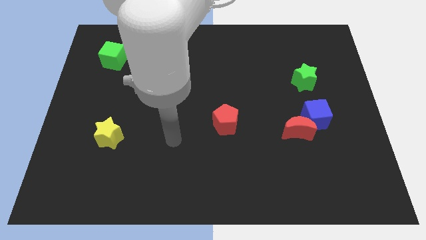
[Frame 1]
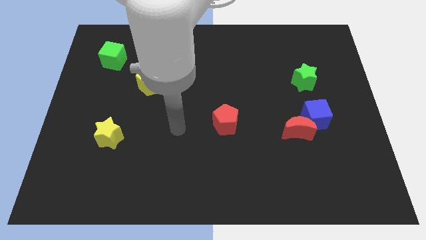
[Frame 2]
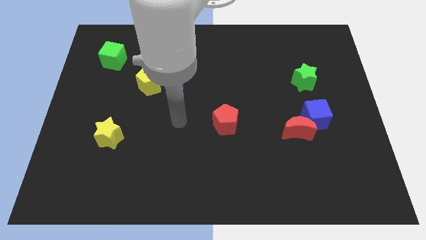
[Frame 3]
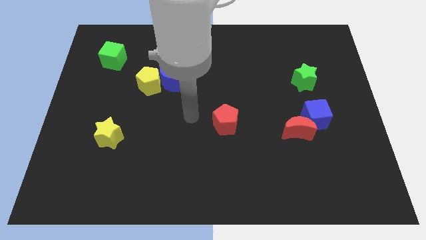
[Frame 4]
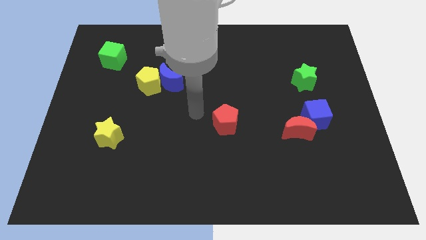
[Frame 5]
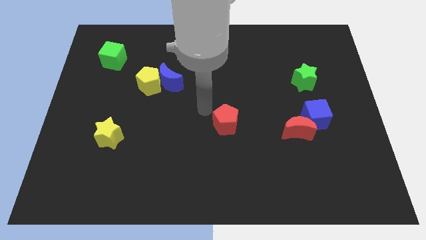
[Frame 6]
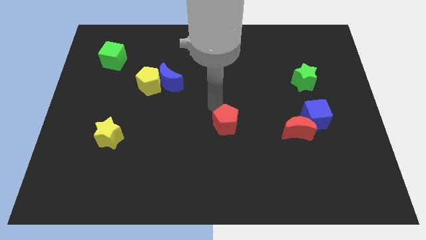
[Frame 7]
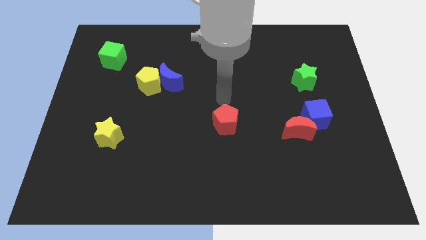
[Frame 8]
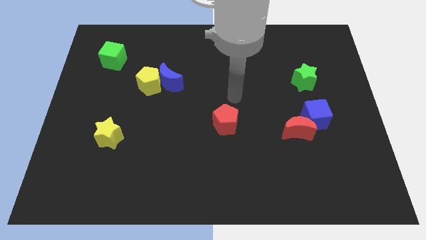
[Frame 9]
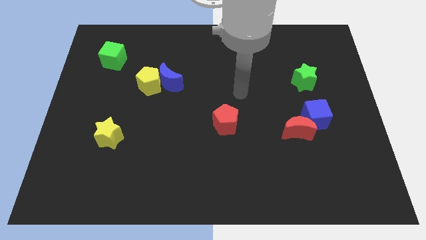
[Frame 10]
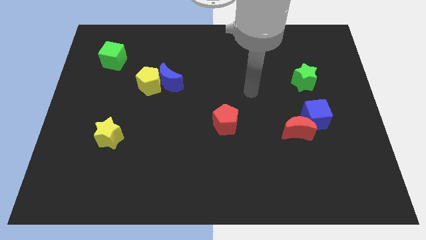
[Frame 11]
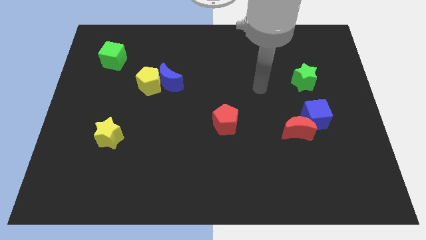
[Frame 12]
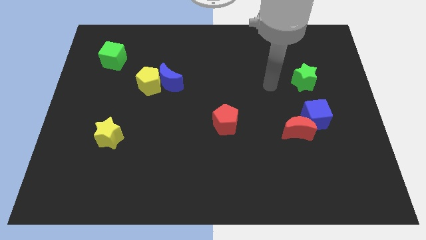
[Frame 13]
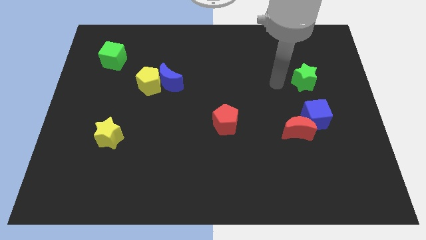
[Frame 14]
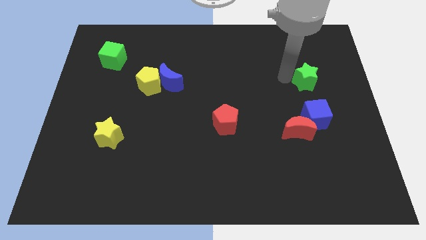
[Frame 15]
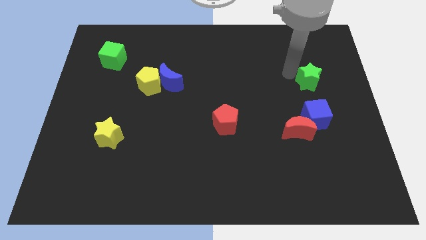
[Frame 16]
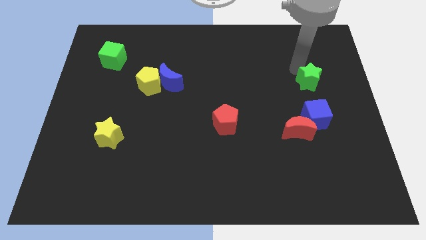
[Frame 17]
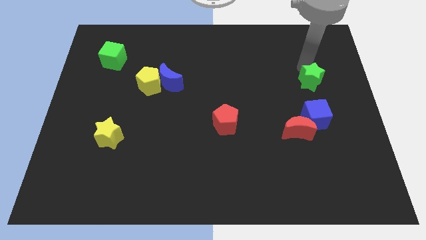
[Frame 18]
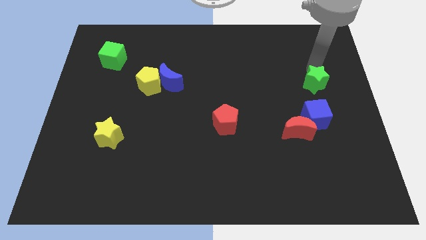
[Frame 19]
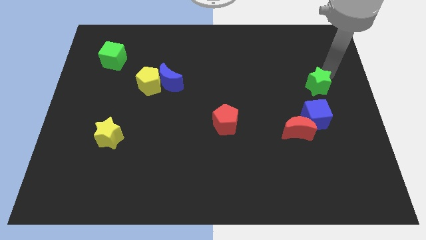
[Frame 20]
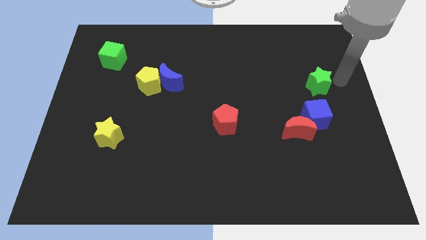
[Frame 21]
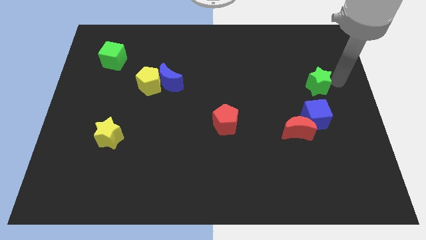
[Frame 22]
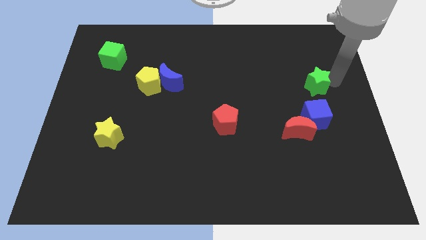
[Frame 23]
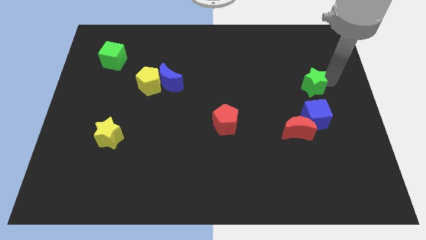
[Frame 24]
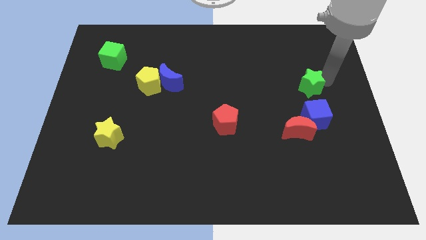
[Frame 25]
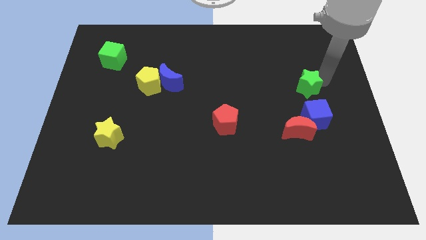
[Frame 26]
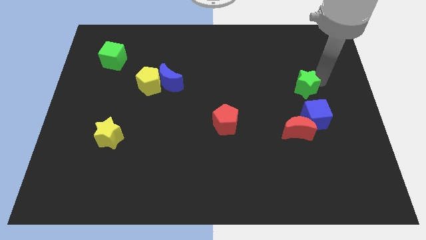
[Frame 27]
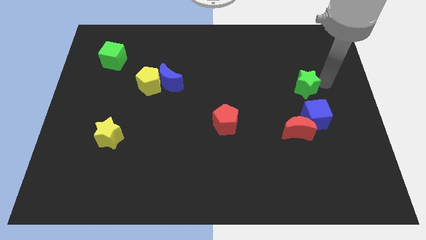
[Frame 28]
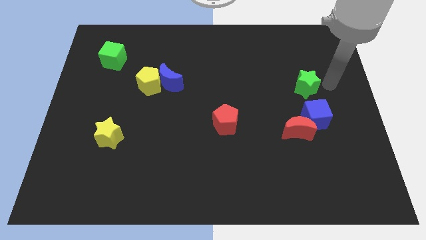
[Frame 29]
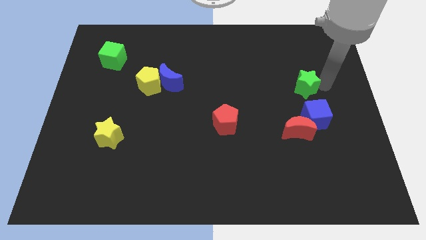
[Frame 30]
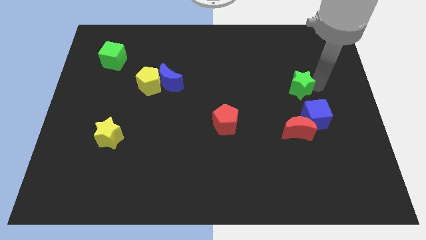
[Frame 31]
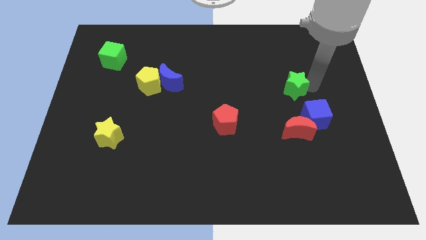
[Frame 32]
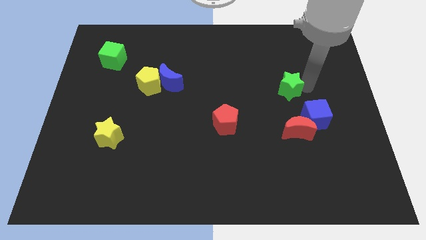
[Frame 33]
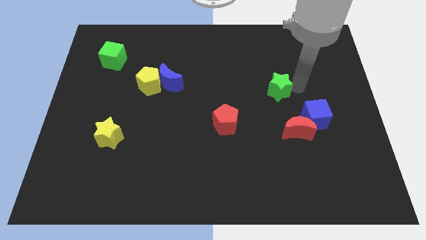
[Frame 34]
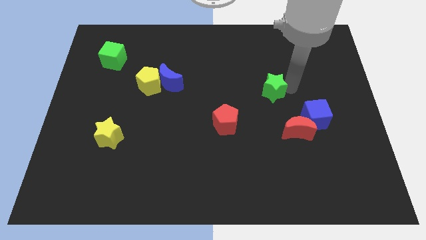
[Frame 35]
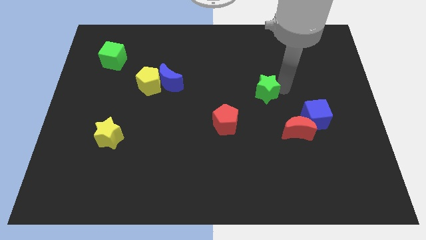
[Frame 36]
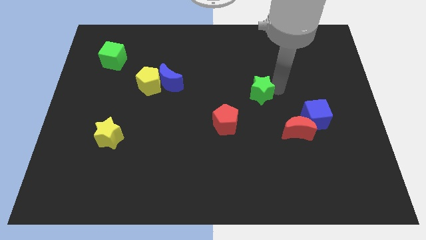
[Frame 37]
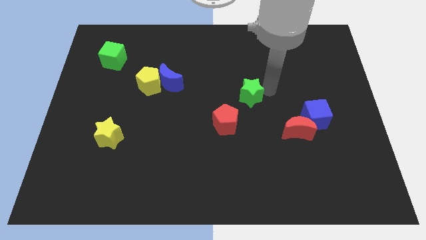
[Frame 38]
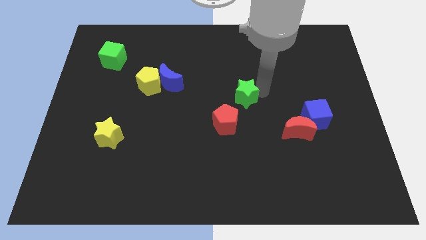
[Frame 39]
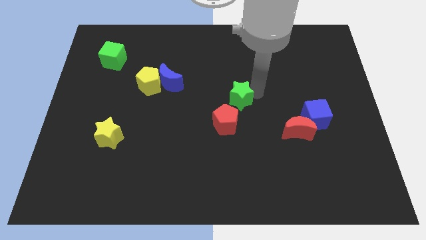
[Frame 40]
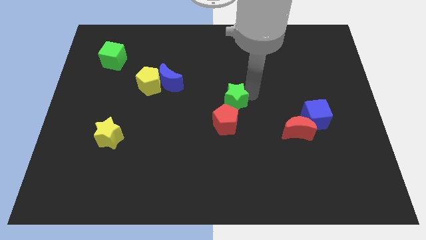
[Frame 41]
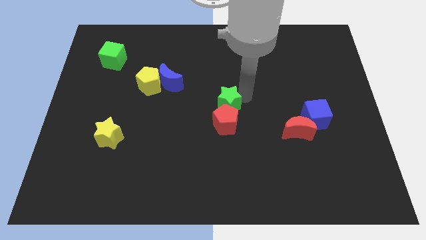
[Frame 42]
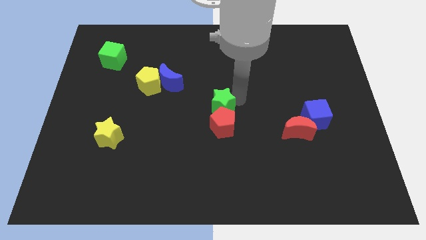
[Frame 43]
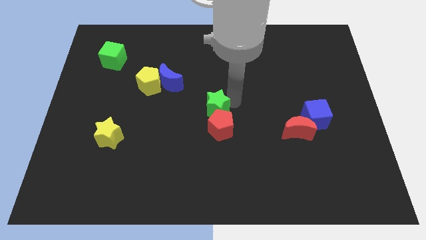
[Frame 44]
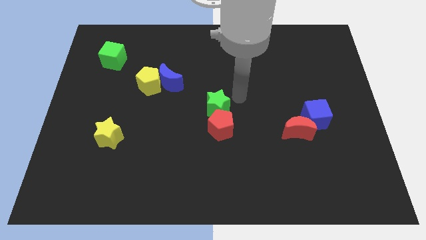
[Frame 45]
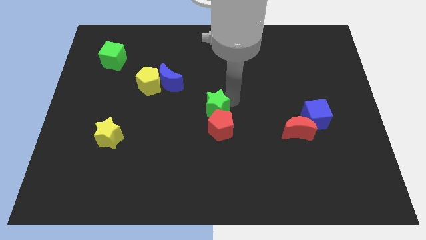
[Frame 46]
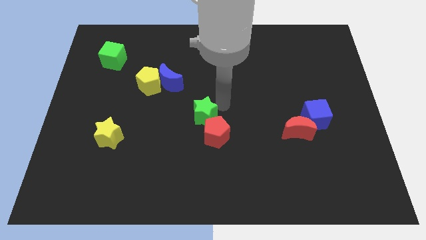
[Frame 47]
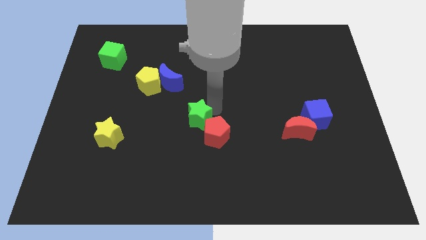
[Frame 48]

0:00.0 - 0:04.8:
put the green star just left of the red pentagon

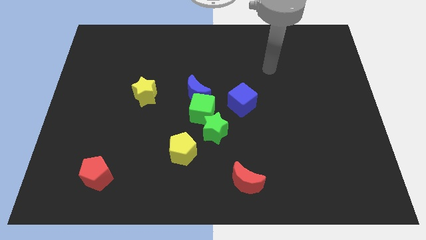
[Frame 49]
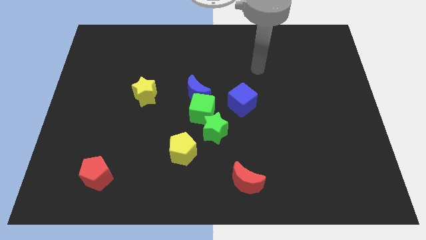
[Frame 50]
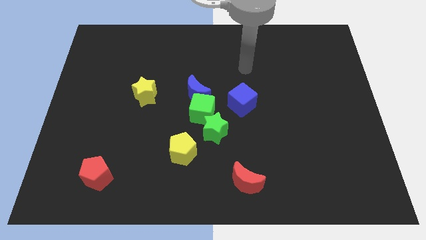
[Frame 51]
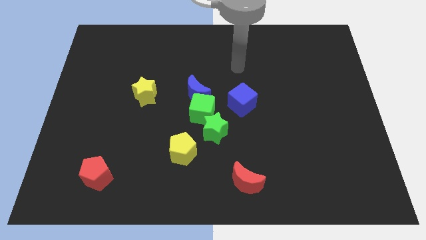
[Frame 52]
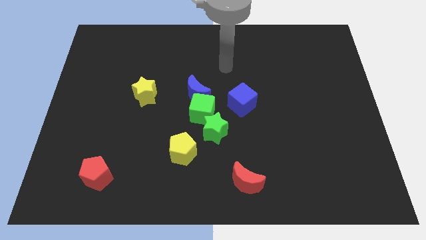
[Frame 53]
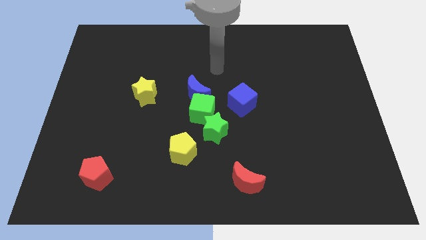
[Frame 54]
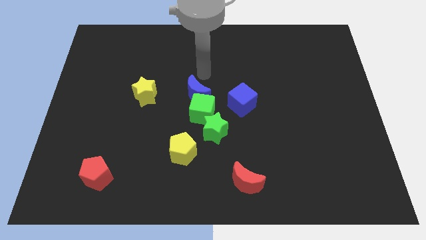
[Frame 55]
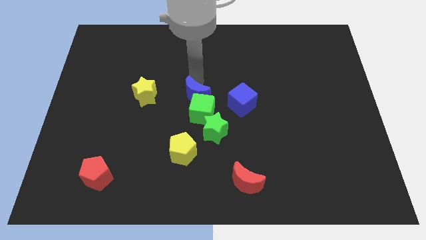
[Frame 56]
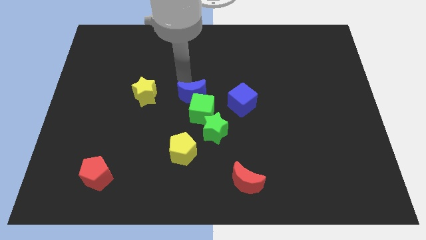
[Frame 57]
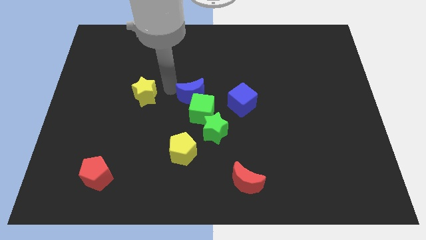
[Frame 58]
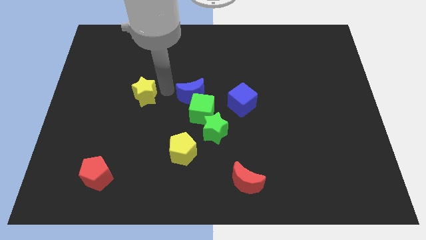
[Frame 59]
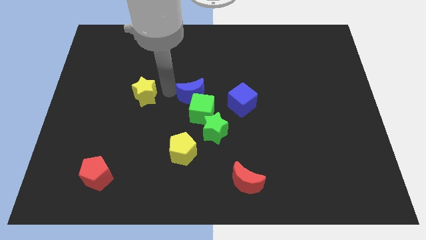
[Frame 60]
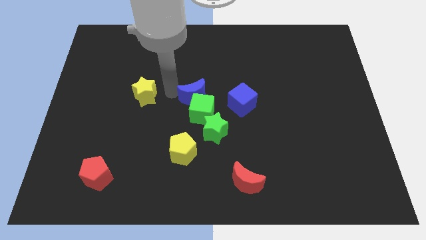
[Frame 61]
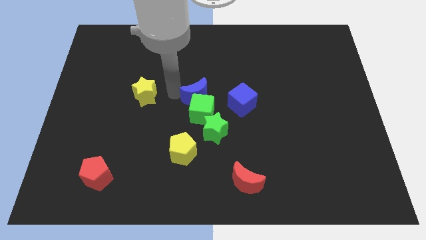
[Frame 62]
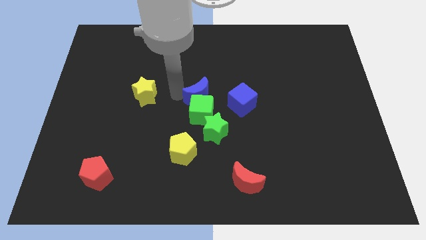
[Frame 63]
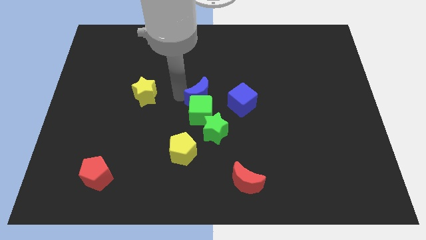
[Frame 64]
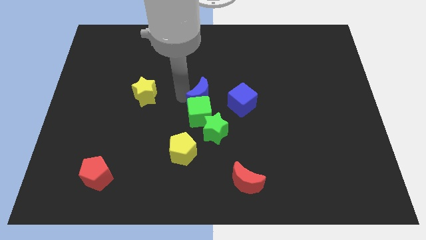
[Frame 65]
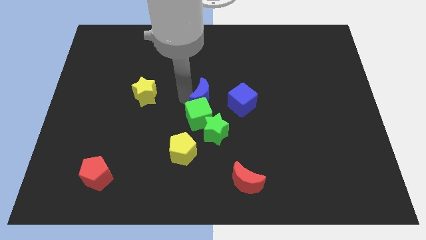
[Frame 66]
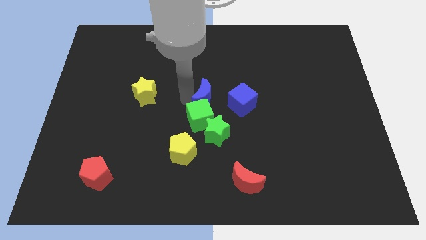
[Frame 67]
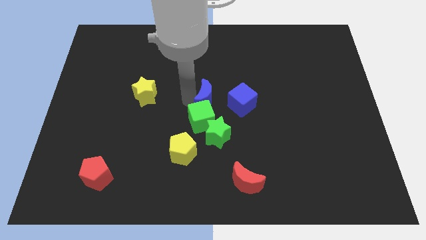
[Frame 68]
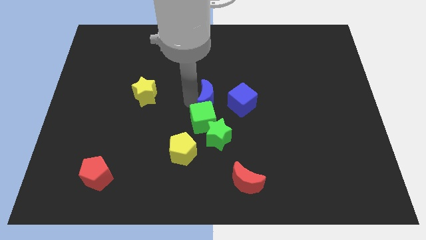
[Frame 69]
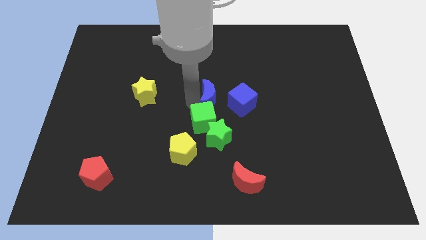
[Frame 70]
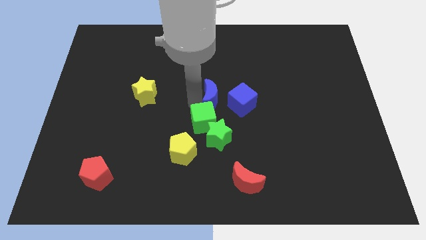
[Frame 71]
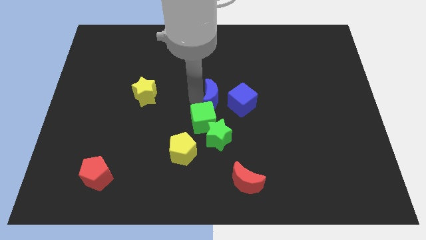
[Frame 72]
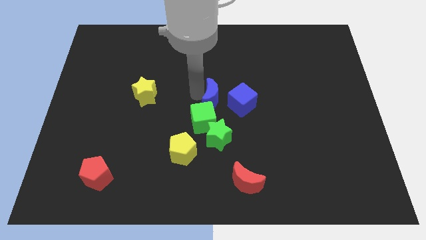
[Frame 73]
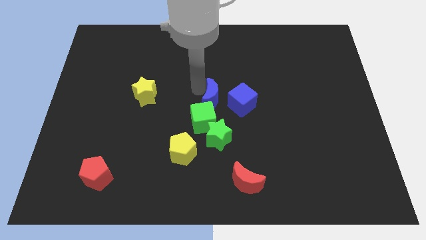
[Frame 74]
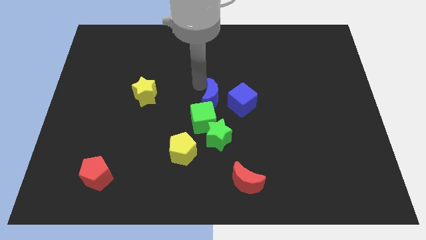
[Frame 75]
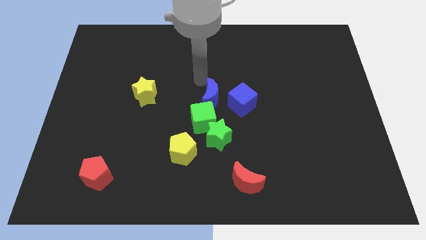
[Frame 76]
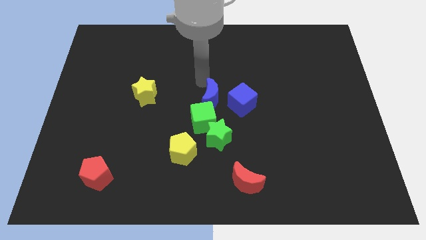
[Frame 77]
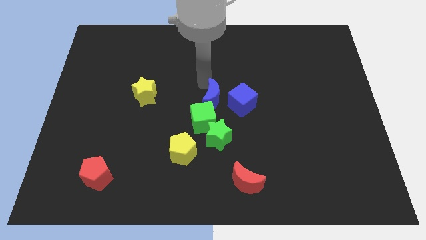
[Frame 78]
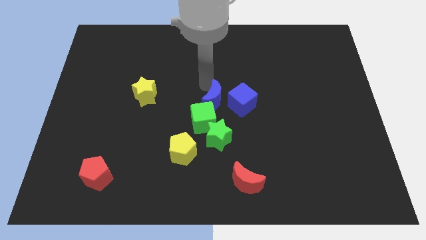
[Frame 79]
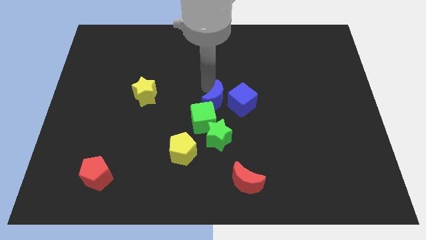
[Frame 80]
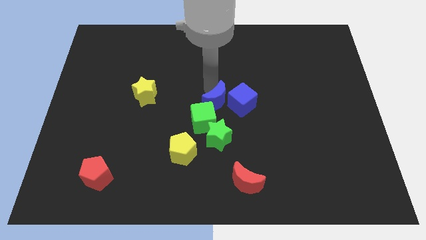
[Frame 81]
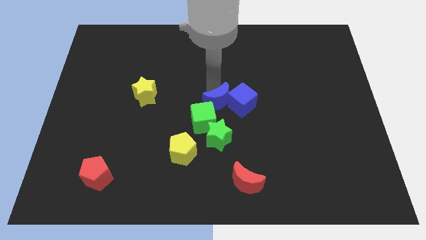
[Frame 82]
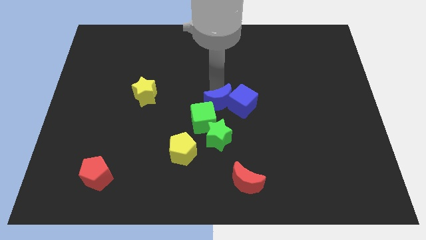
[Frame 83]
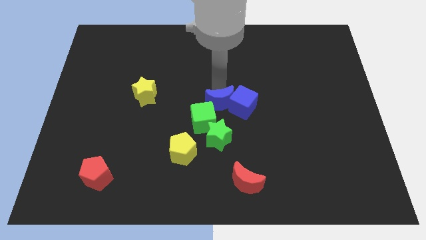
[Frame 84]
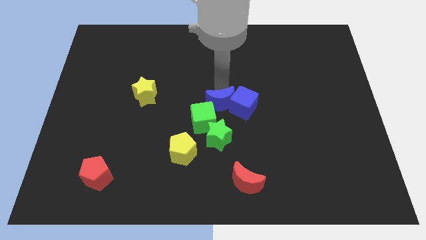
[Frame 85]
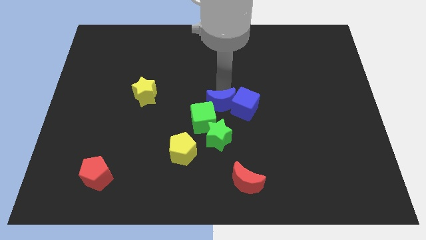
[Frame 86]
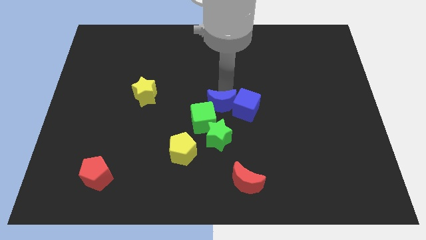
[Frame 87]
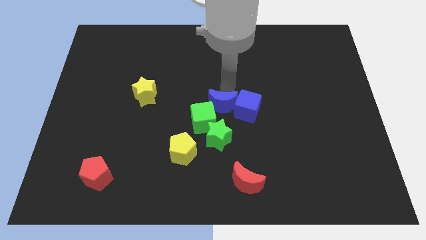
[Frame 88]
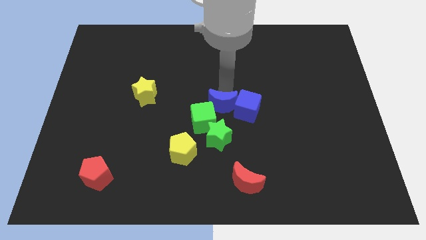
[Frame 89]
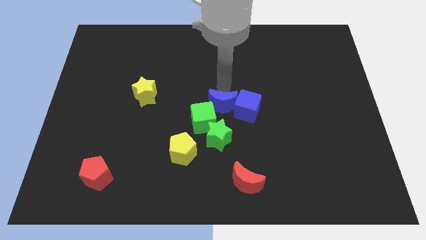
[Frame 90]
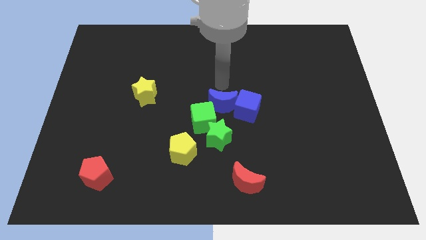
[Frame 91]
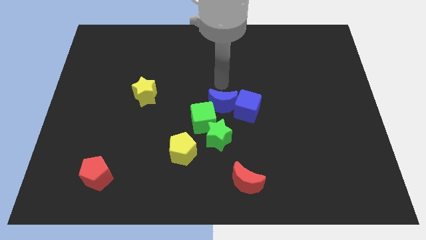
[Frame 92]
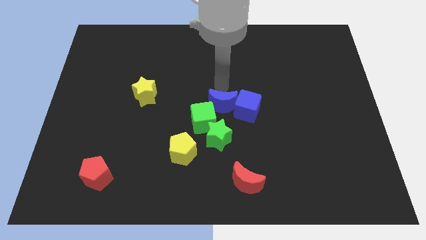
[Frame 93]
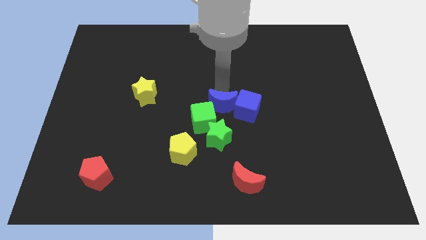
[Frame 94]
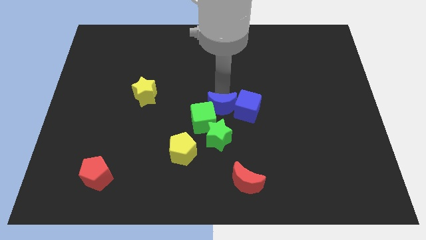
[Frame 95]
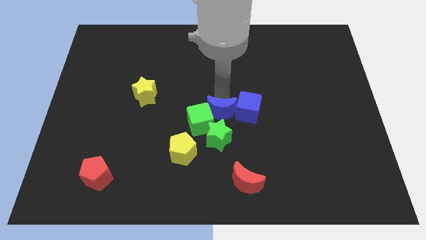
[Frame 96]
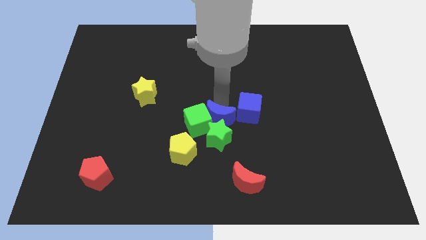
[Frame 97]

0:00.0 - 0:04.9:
move the blue moon to the bottom right side of the green cube
